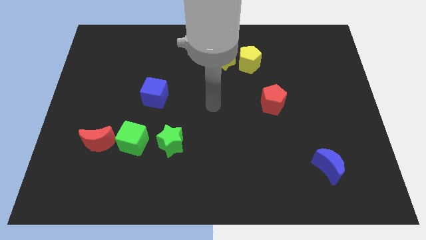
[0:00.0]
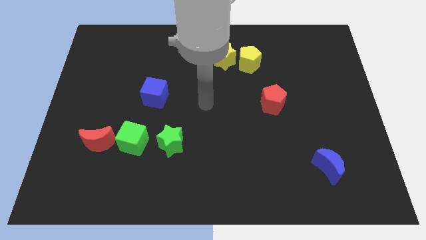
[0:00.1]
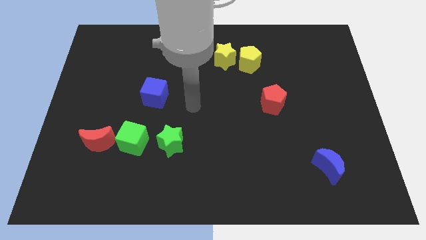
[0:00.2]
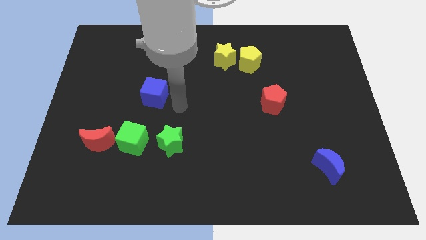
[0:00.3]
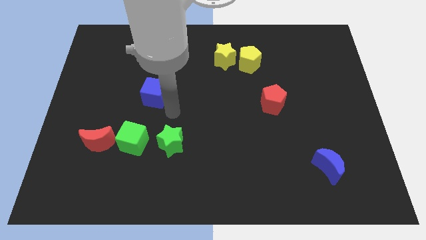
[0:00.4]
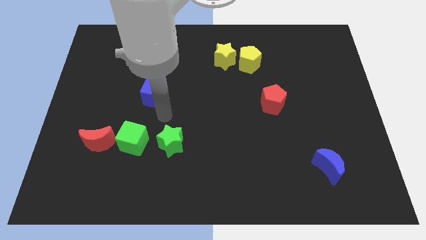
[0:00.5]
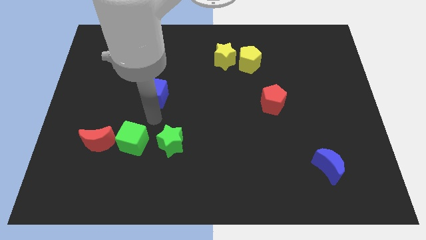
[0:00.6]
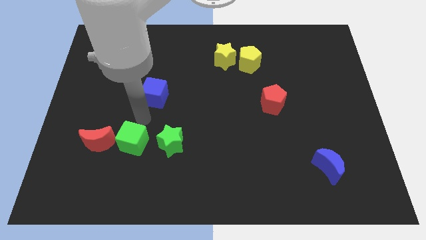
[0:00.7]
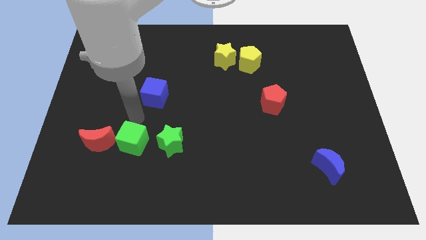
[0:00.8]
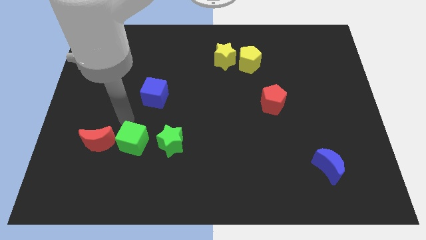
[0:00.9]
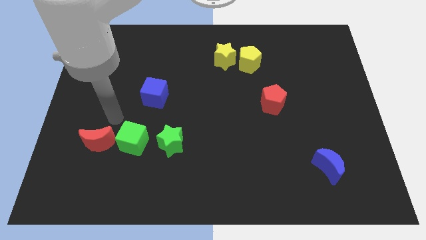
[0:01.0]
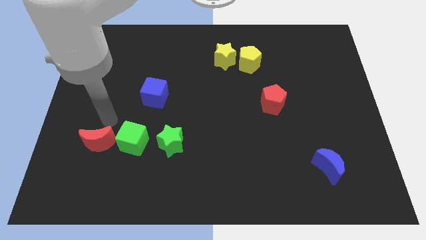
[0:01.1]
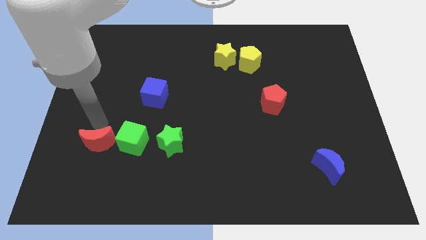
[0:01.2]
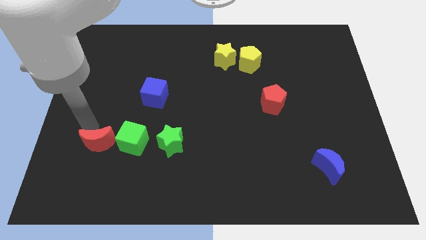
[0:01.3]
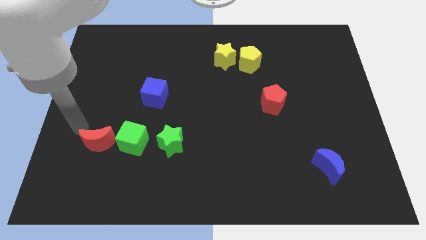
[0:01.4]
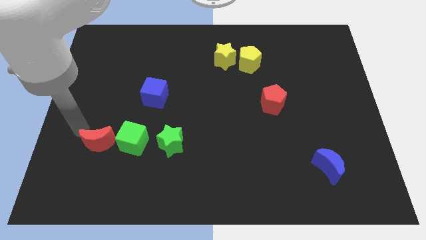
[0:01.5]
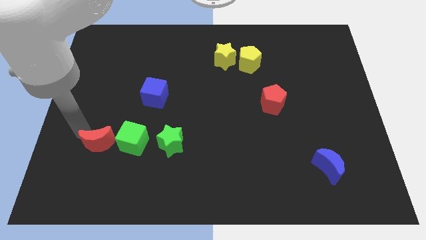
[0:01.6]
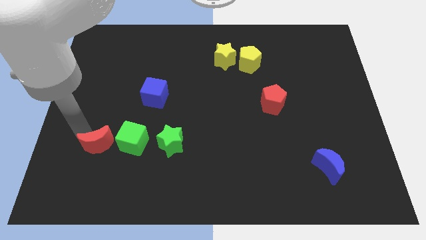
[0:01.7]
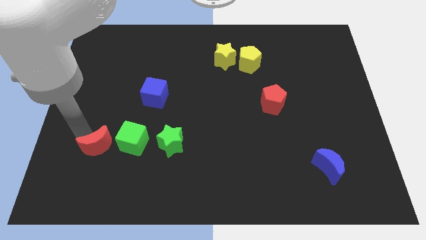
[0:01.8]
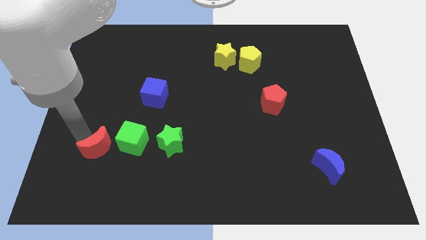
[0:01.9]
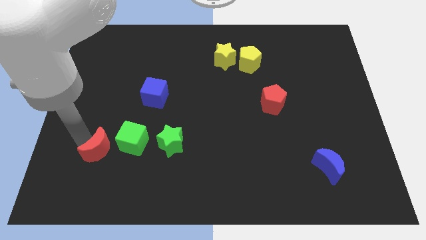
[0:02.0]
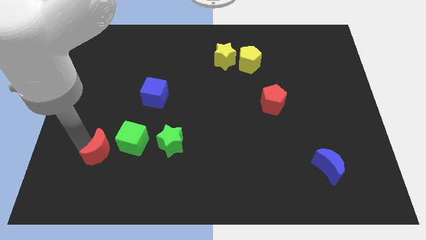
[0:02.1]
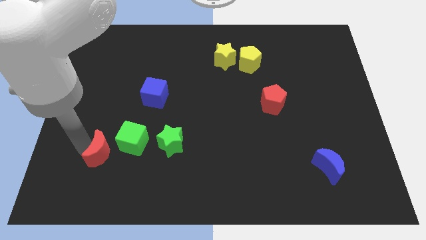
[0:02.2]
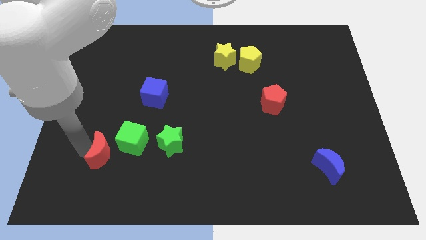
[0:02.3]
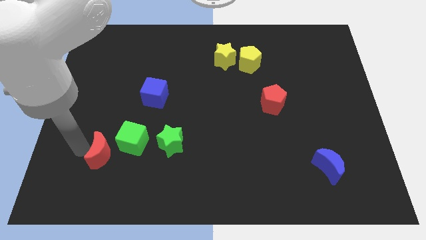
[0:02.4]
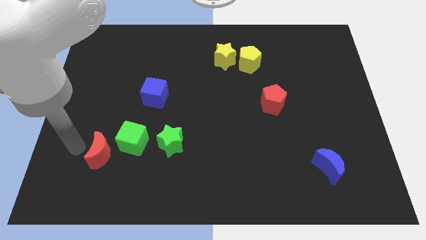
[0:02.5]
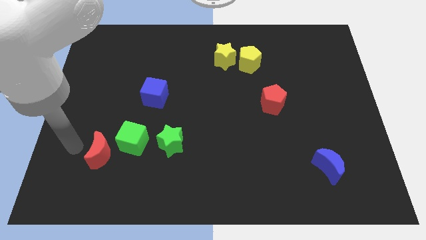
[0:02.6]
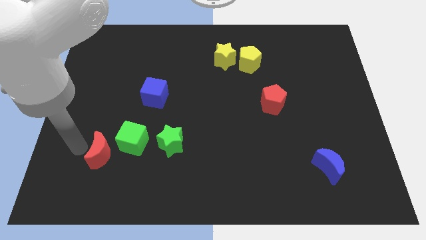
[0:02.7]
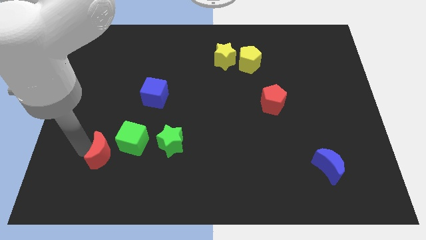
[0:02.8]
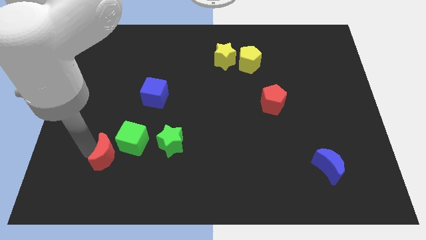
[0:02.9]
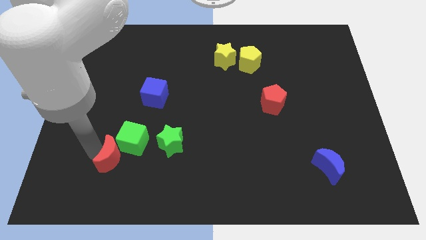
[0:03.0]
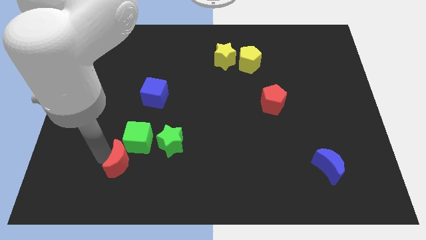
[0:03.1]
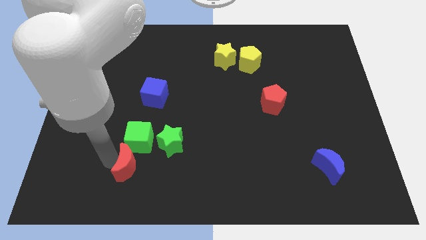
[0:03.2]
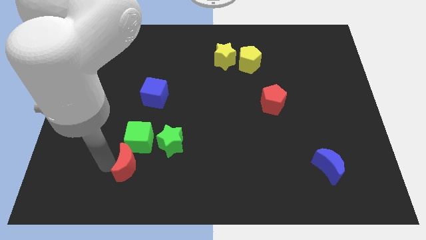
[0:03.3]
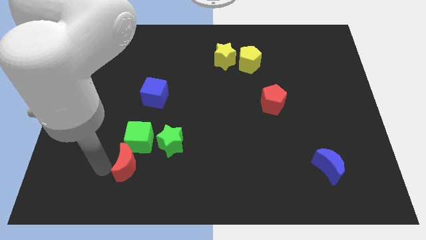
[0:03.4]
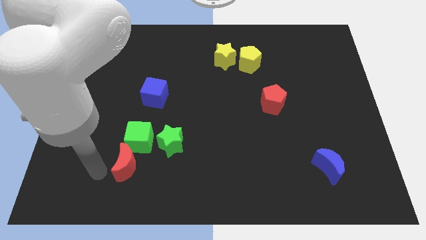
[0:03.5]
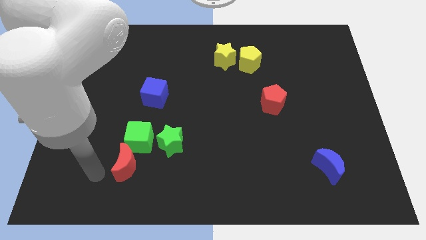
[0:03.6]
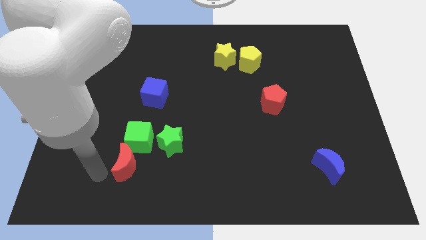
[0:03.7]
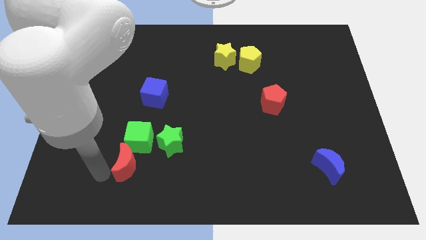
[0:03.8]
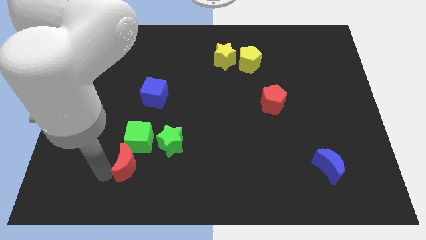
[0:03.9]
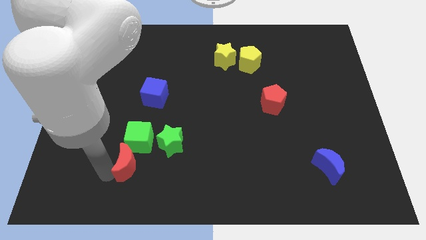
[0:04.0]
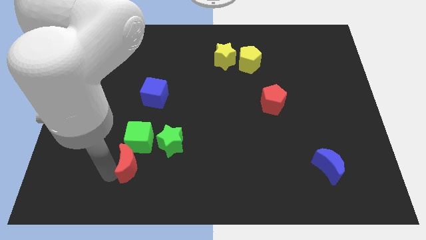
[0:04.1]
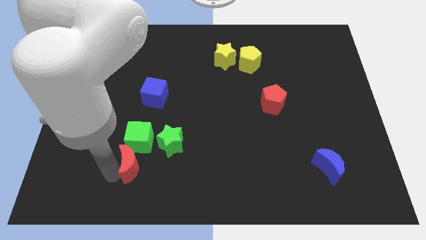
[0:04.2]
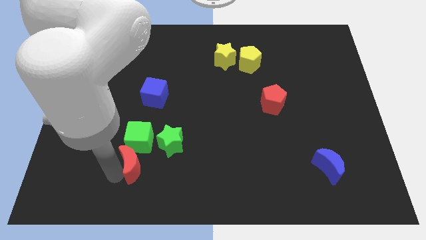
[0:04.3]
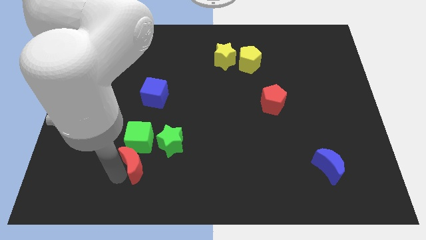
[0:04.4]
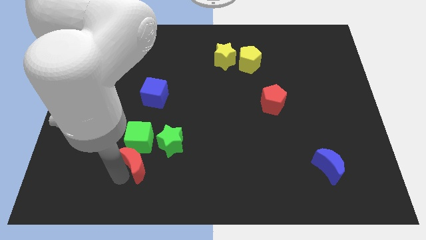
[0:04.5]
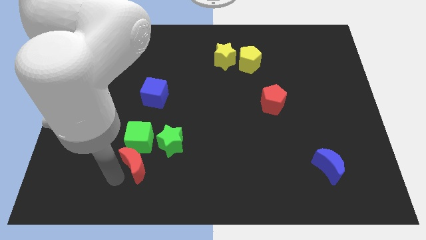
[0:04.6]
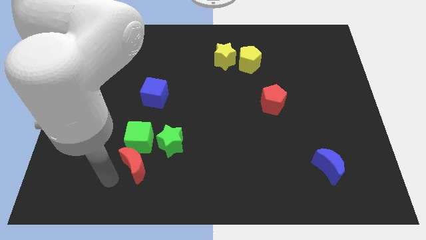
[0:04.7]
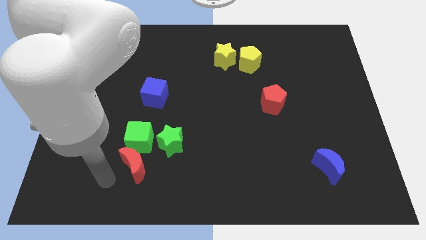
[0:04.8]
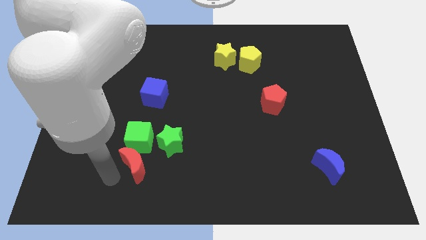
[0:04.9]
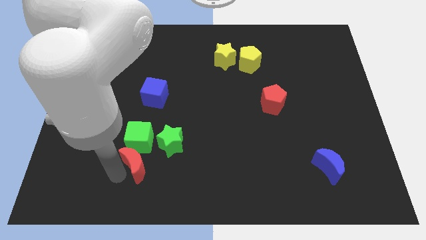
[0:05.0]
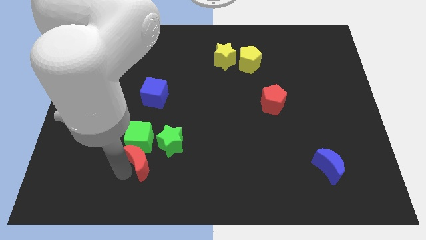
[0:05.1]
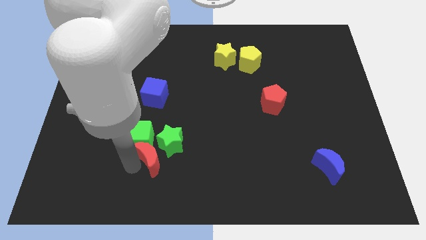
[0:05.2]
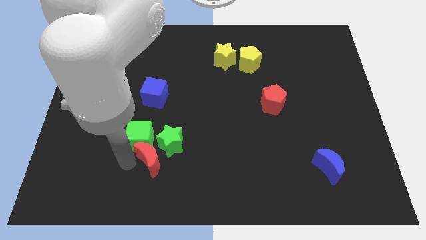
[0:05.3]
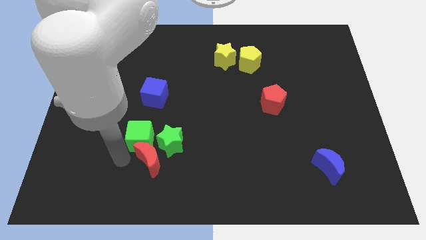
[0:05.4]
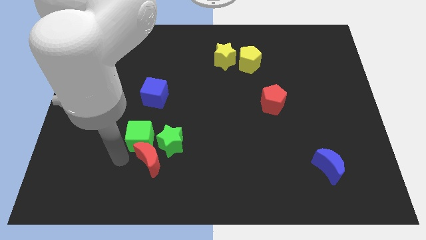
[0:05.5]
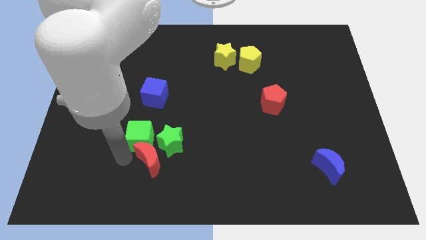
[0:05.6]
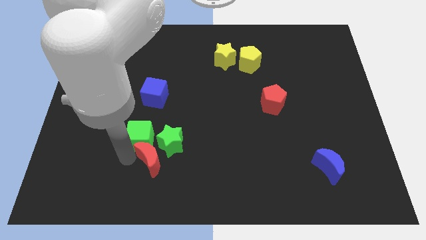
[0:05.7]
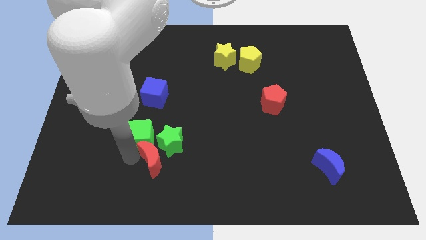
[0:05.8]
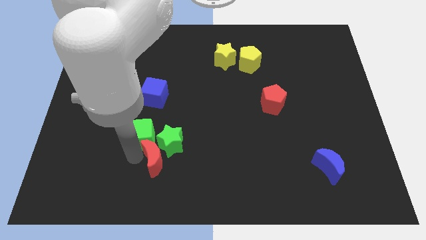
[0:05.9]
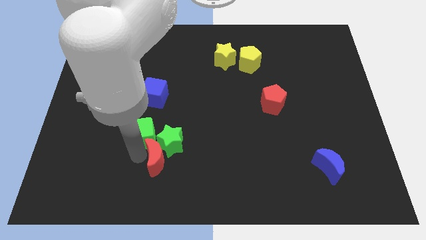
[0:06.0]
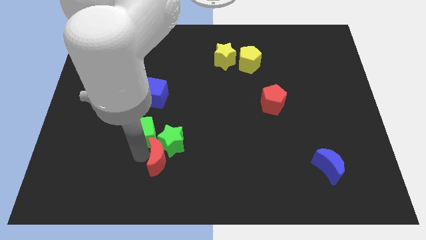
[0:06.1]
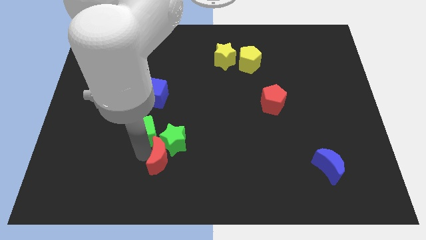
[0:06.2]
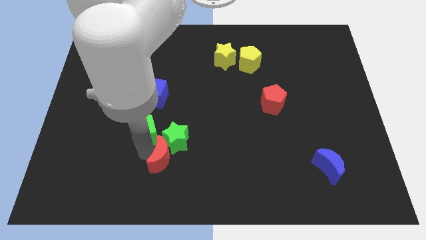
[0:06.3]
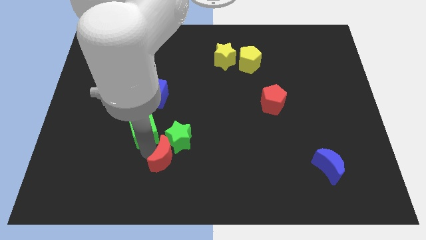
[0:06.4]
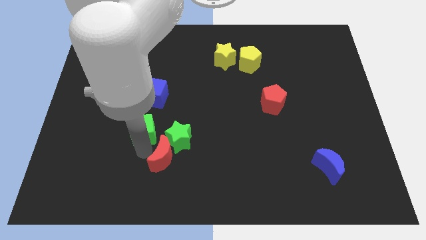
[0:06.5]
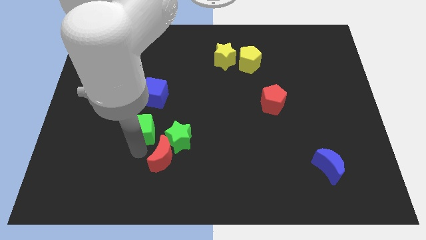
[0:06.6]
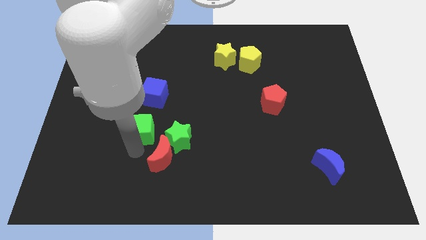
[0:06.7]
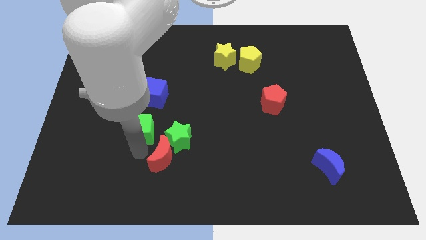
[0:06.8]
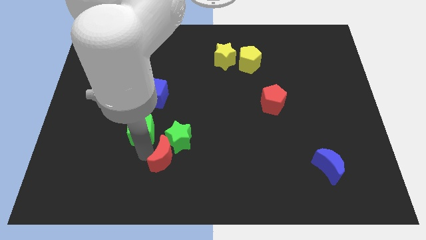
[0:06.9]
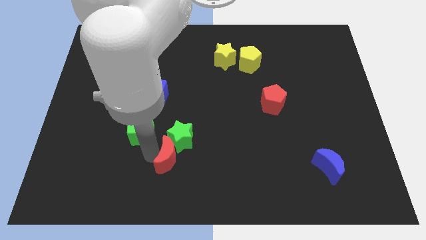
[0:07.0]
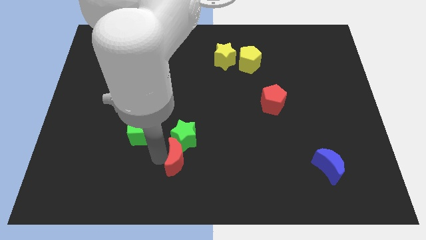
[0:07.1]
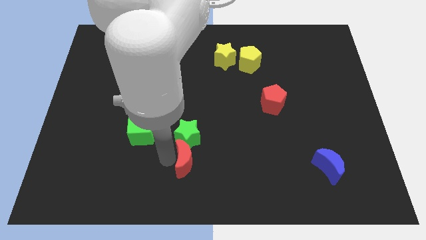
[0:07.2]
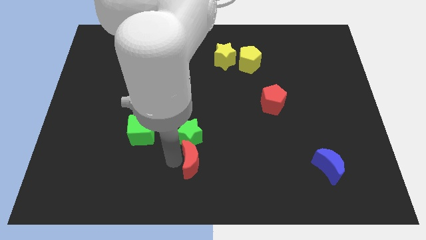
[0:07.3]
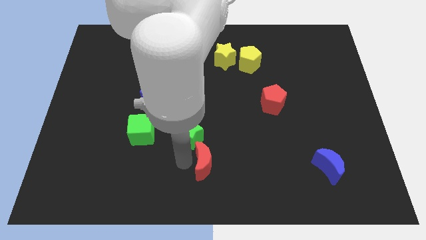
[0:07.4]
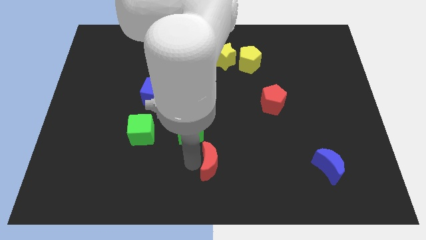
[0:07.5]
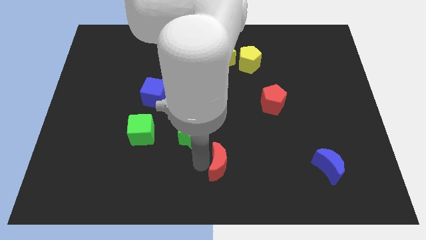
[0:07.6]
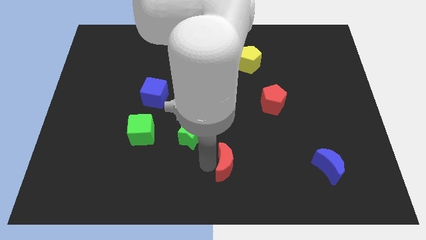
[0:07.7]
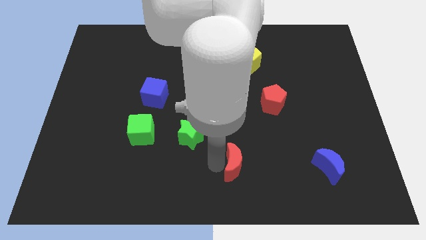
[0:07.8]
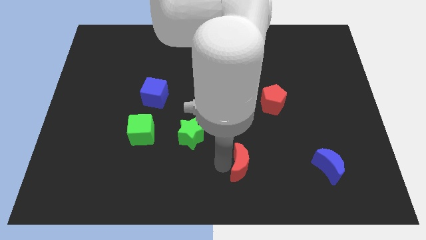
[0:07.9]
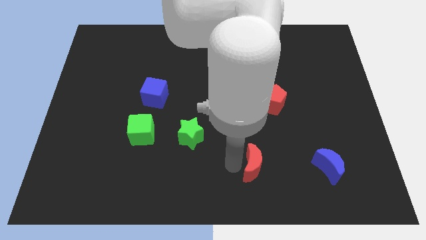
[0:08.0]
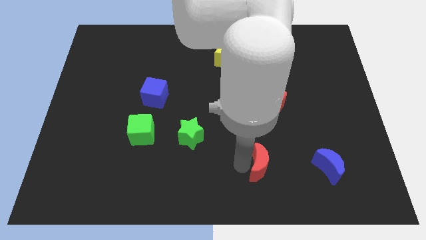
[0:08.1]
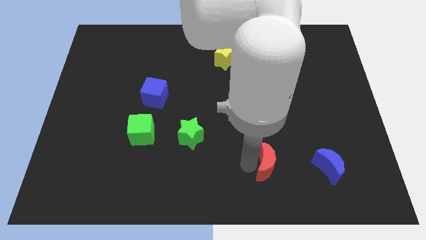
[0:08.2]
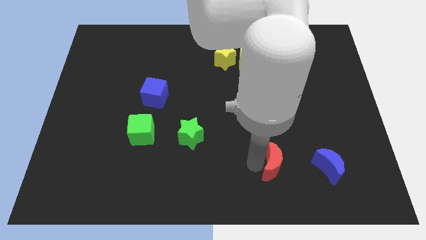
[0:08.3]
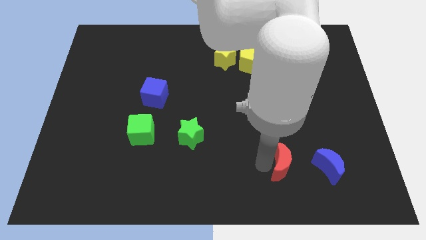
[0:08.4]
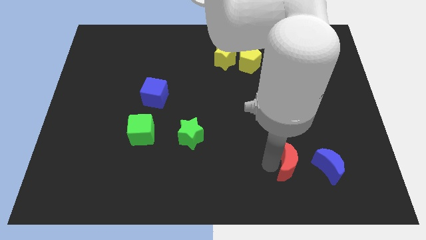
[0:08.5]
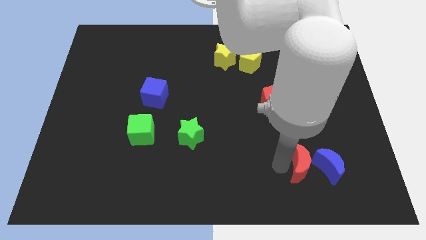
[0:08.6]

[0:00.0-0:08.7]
slide the red moon close to the blue moon
